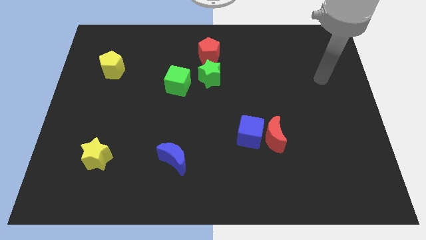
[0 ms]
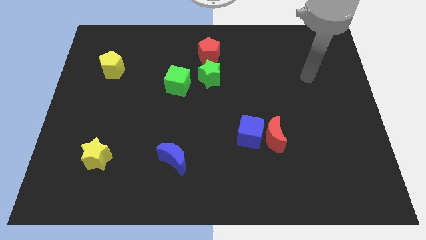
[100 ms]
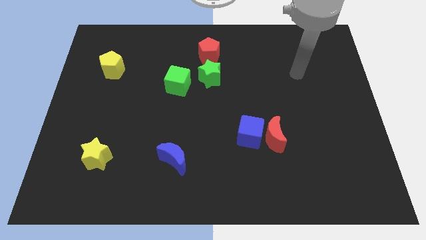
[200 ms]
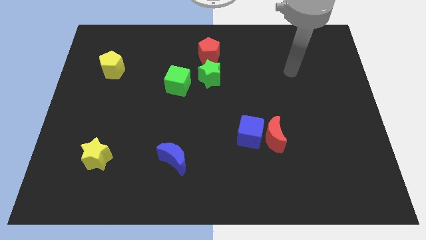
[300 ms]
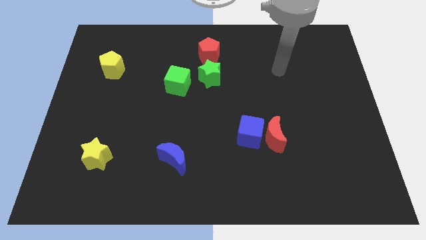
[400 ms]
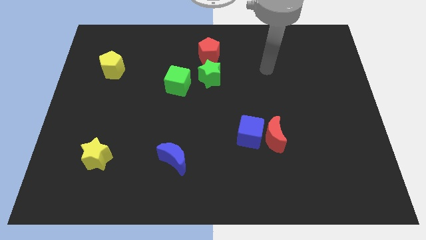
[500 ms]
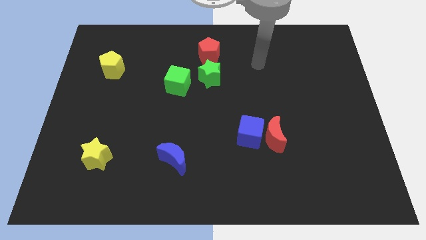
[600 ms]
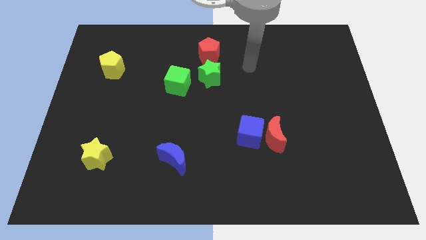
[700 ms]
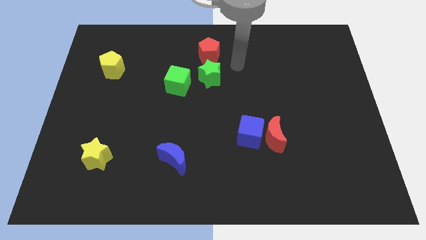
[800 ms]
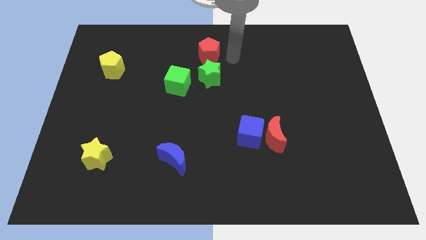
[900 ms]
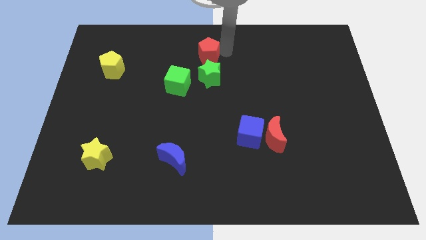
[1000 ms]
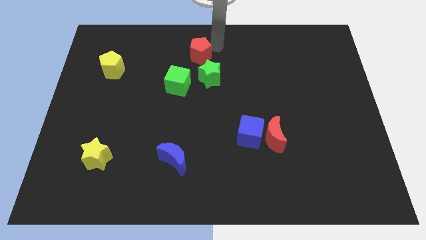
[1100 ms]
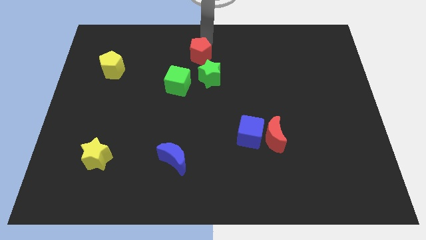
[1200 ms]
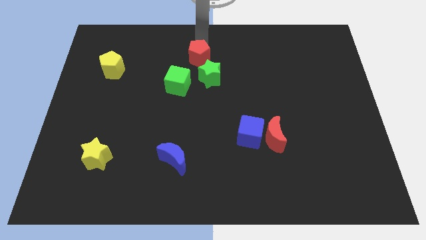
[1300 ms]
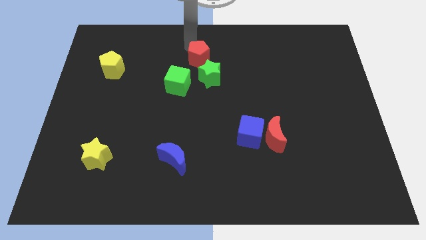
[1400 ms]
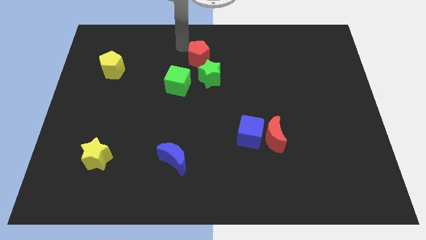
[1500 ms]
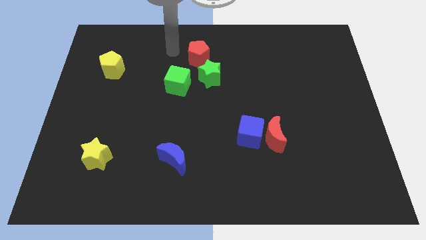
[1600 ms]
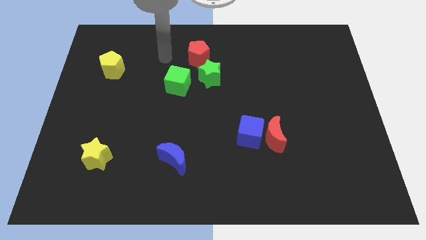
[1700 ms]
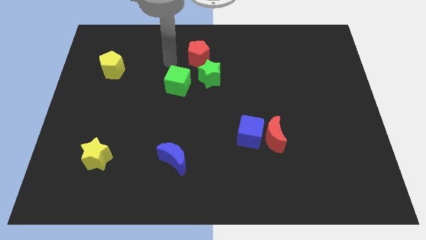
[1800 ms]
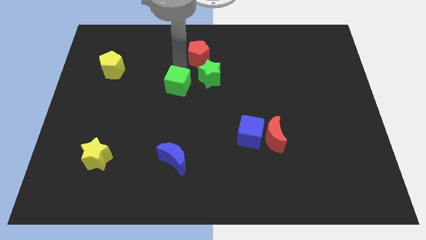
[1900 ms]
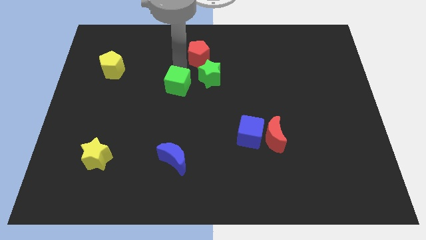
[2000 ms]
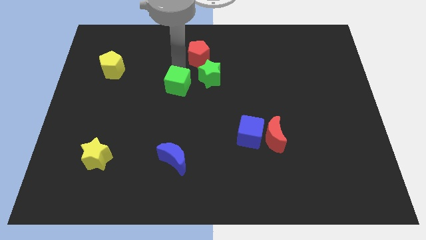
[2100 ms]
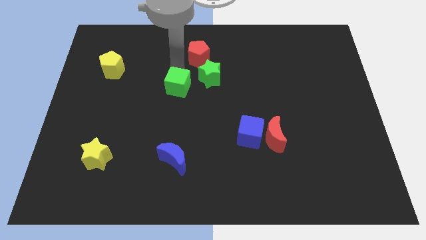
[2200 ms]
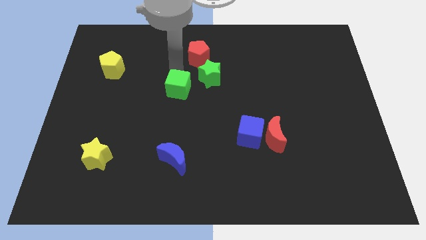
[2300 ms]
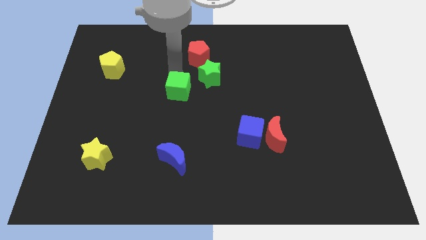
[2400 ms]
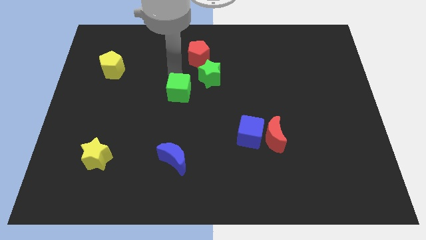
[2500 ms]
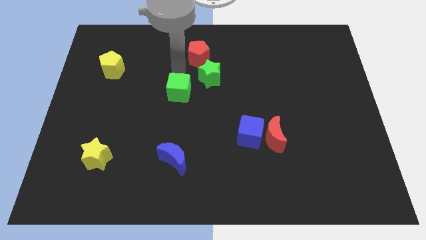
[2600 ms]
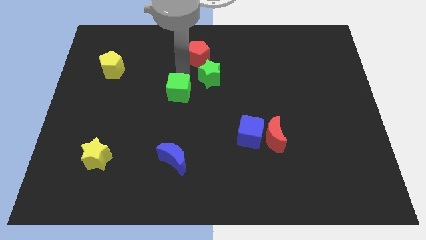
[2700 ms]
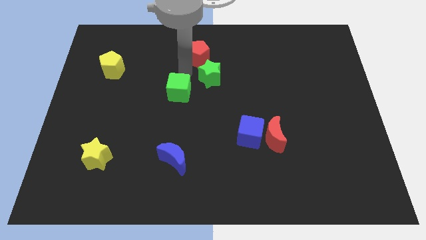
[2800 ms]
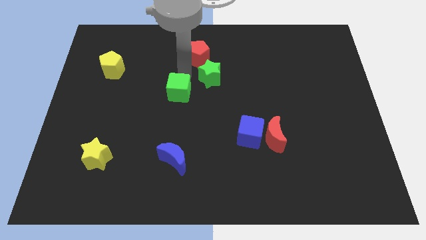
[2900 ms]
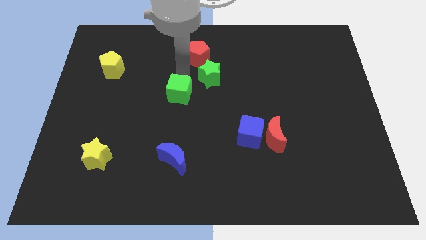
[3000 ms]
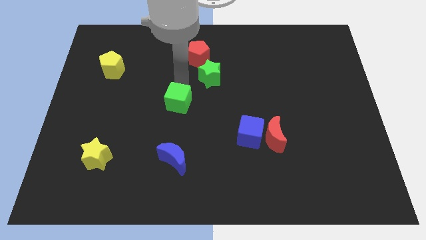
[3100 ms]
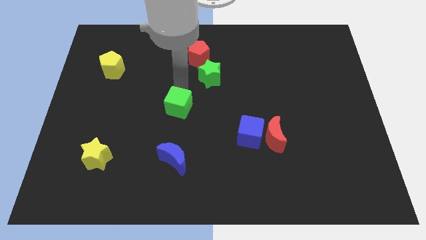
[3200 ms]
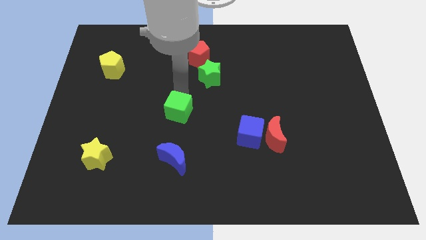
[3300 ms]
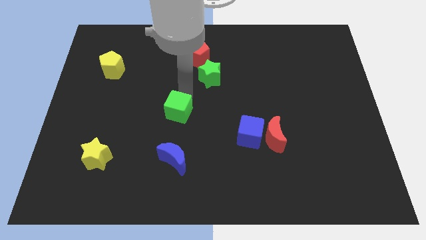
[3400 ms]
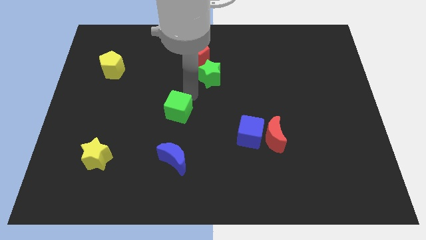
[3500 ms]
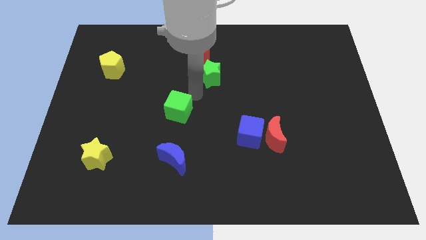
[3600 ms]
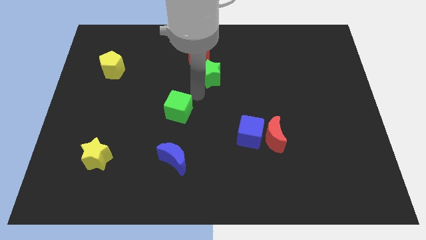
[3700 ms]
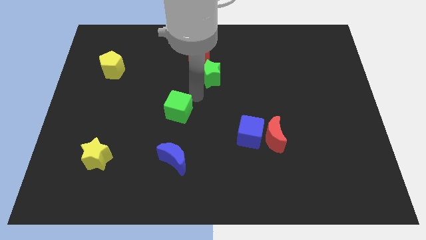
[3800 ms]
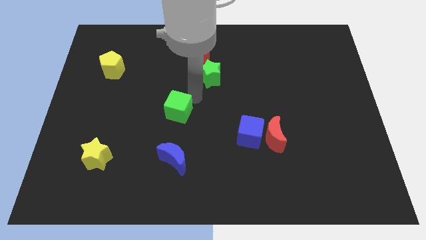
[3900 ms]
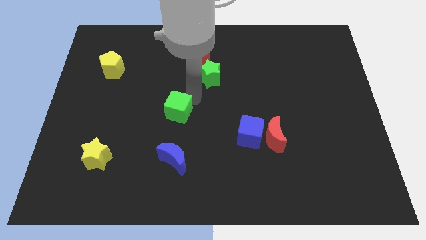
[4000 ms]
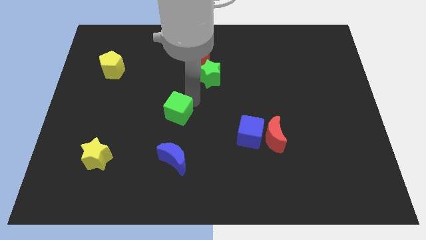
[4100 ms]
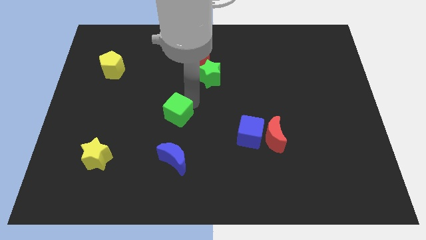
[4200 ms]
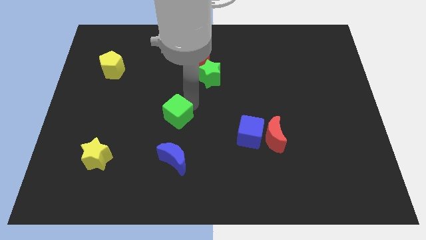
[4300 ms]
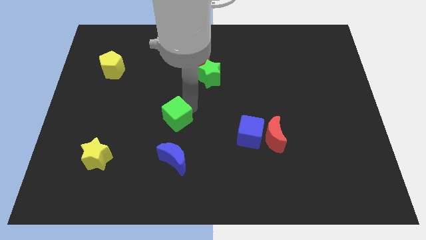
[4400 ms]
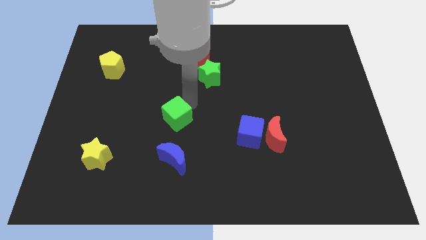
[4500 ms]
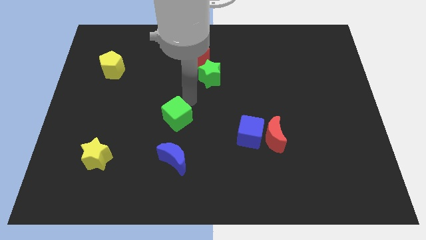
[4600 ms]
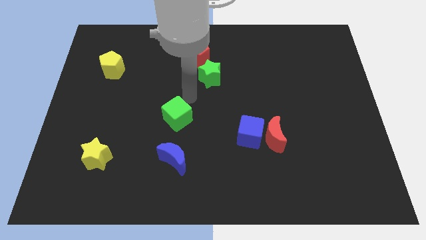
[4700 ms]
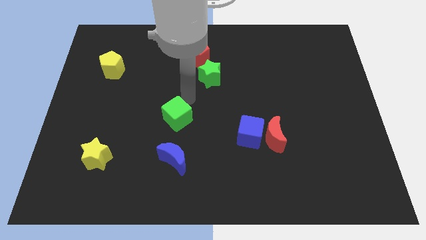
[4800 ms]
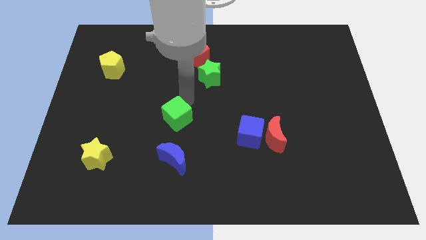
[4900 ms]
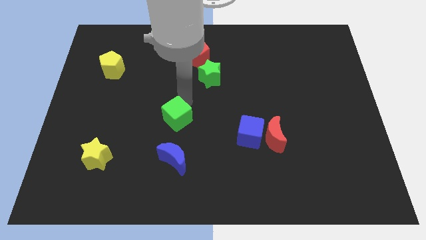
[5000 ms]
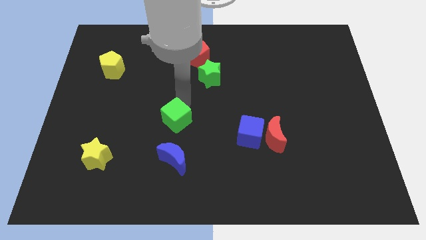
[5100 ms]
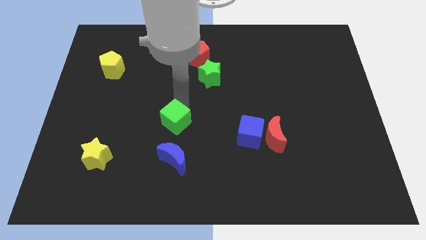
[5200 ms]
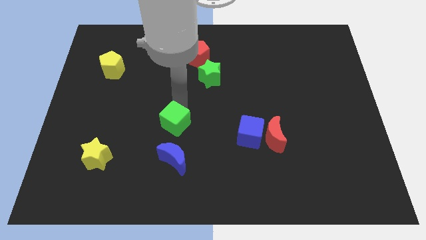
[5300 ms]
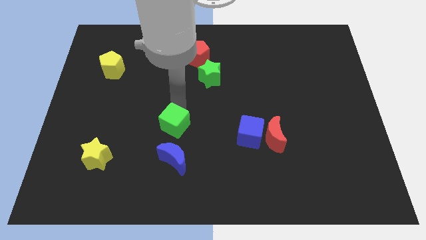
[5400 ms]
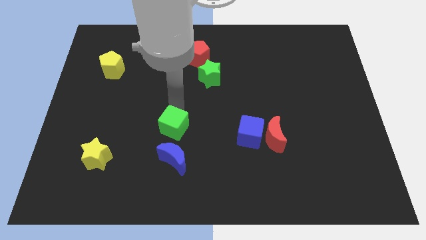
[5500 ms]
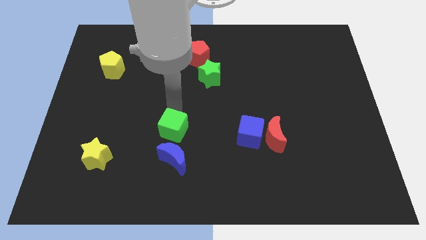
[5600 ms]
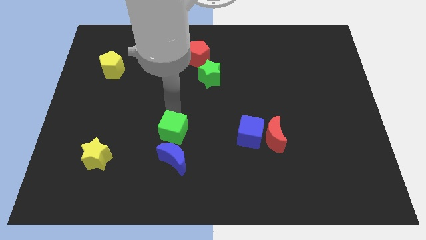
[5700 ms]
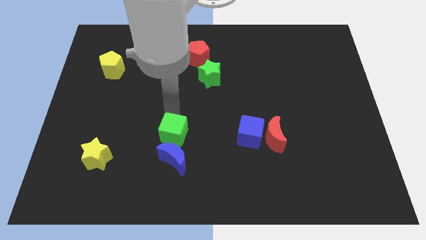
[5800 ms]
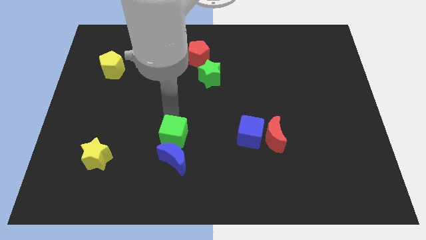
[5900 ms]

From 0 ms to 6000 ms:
put the green cube next to the blue moon

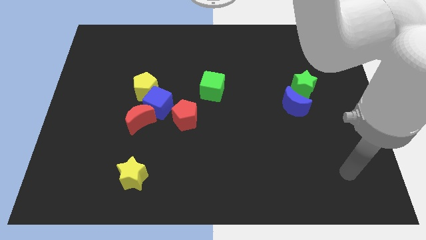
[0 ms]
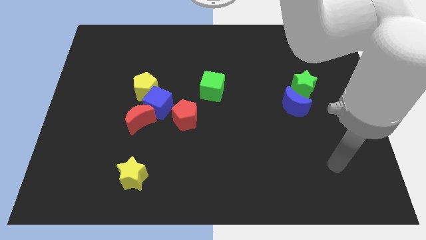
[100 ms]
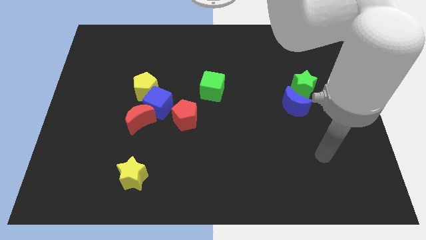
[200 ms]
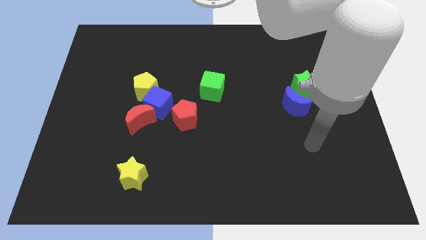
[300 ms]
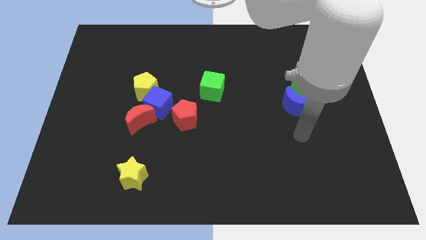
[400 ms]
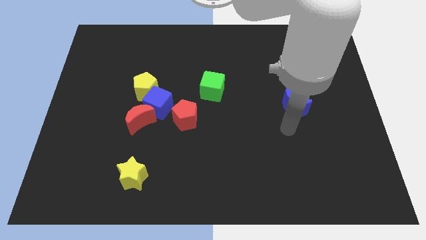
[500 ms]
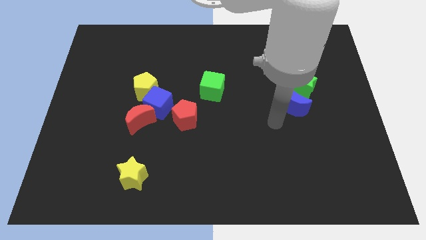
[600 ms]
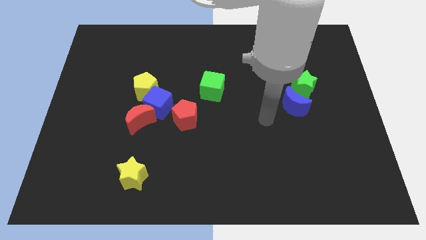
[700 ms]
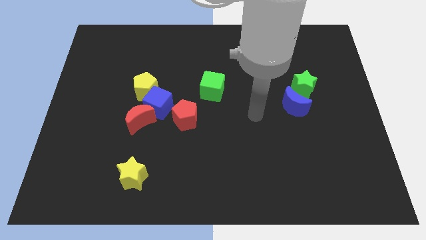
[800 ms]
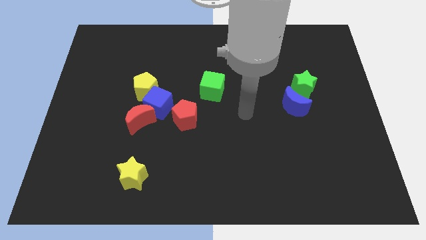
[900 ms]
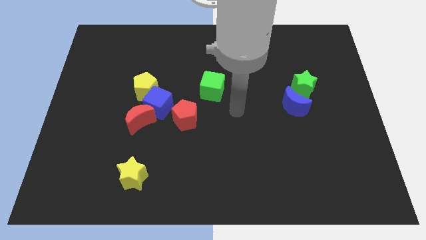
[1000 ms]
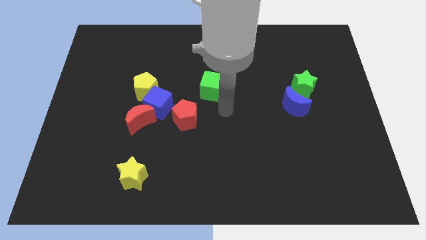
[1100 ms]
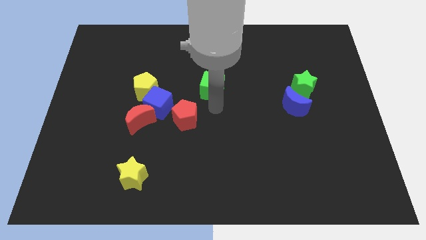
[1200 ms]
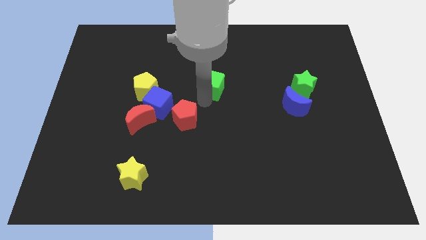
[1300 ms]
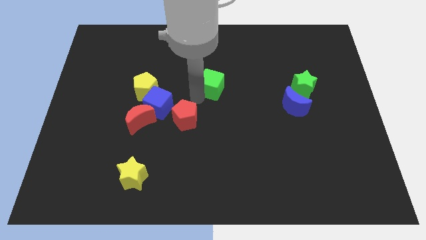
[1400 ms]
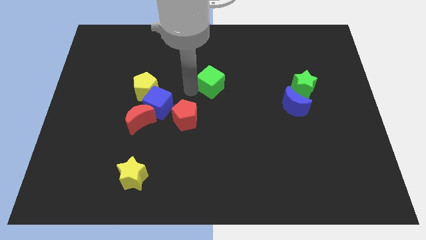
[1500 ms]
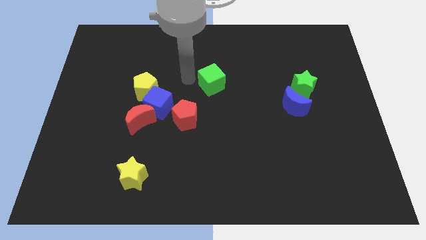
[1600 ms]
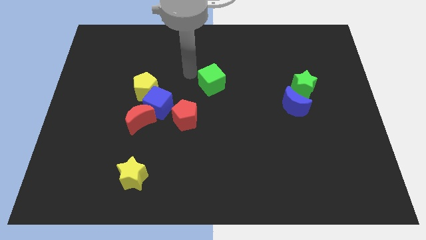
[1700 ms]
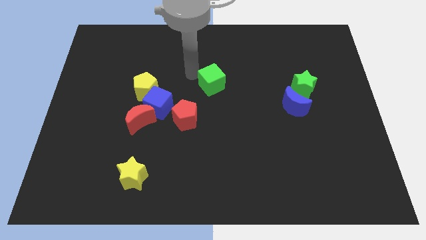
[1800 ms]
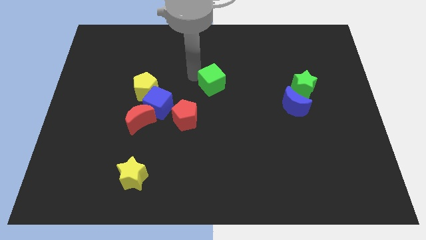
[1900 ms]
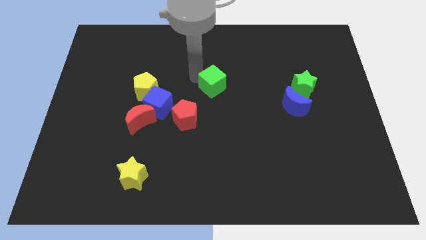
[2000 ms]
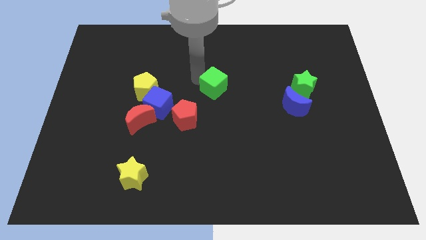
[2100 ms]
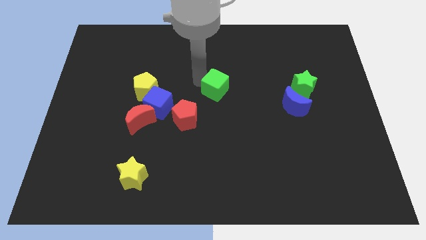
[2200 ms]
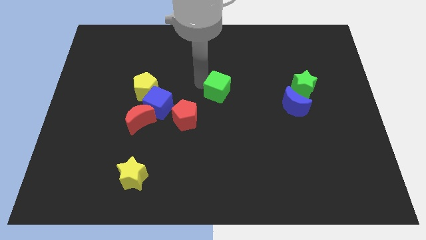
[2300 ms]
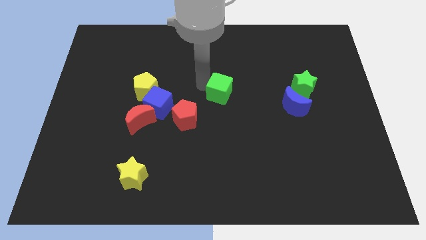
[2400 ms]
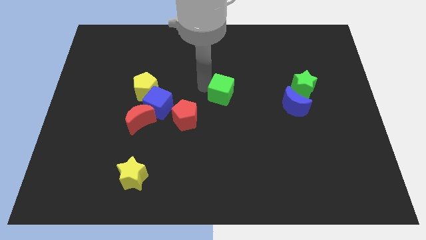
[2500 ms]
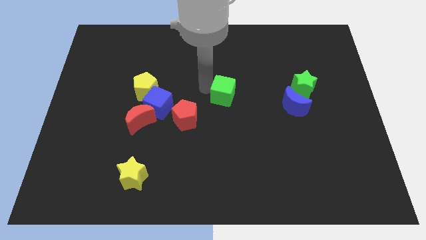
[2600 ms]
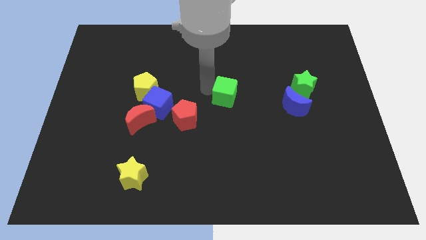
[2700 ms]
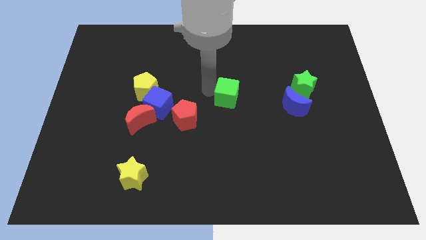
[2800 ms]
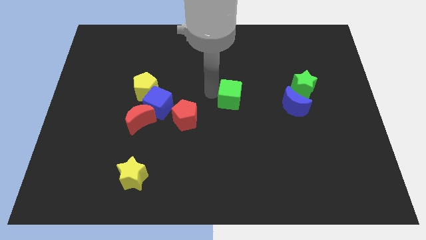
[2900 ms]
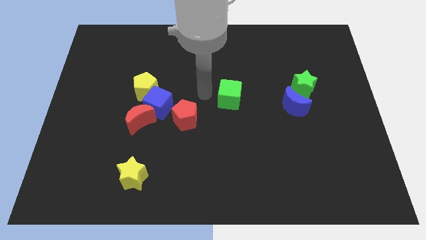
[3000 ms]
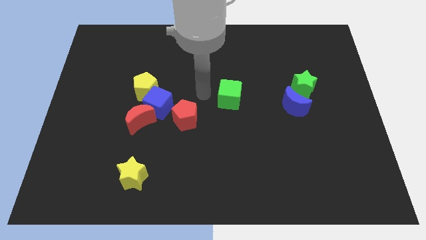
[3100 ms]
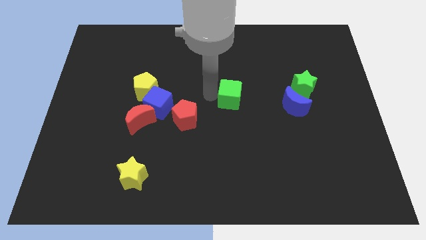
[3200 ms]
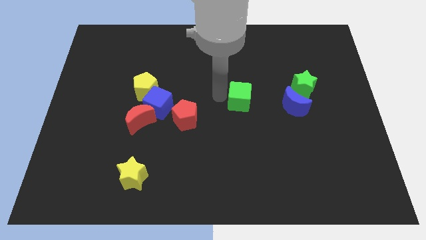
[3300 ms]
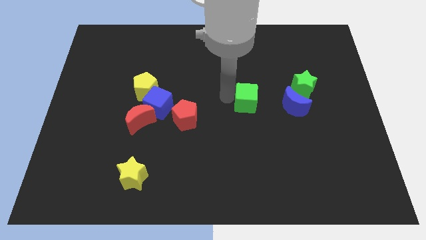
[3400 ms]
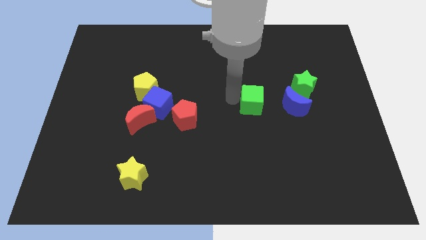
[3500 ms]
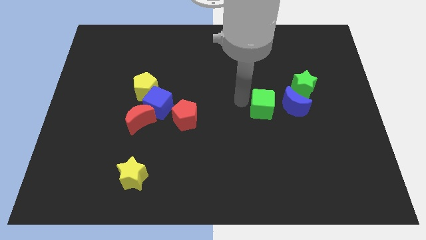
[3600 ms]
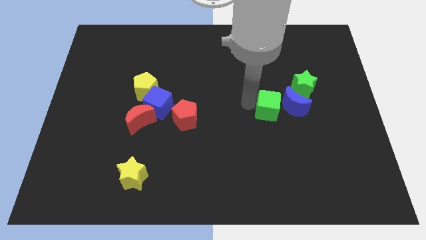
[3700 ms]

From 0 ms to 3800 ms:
put the green cube towards the blue moon
